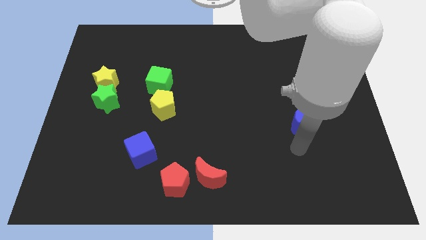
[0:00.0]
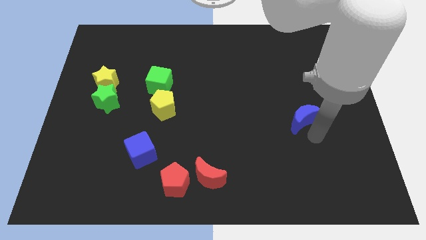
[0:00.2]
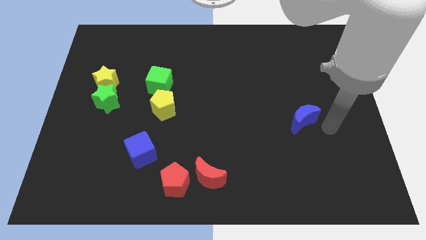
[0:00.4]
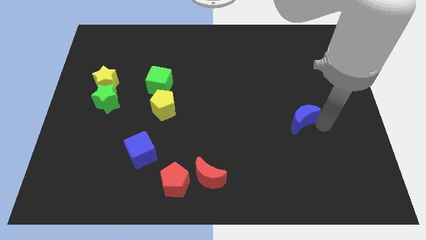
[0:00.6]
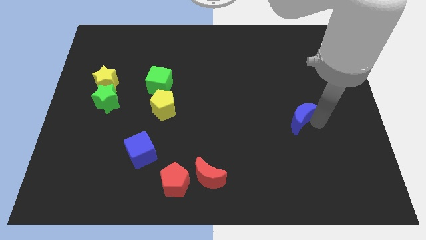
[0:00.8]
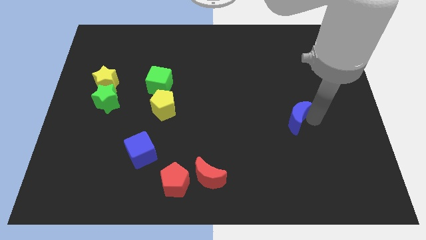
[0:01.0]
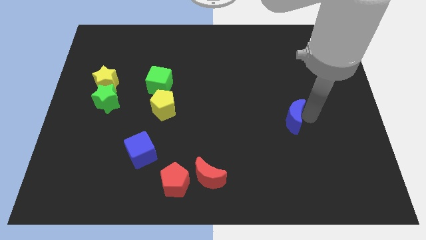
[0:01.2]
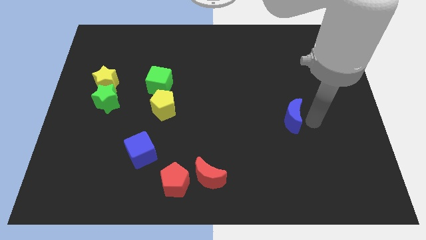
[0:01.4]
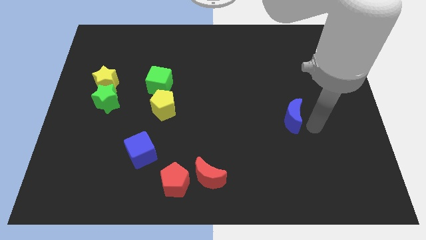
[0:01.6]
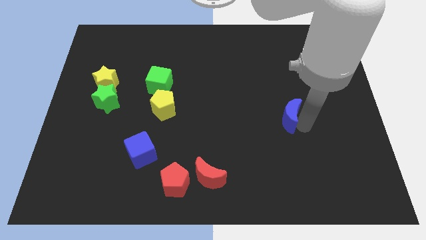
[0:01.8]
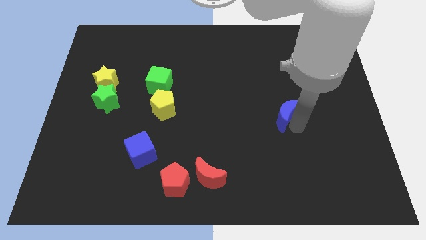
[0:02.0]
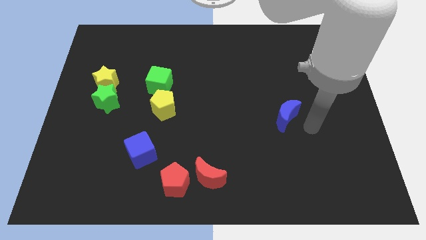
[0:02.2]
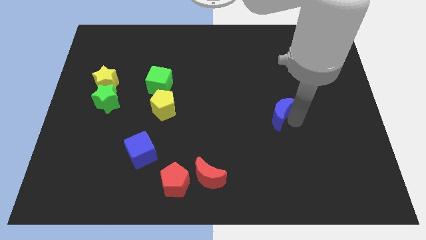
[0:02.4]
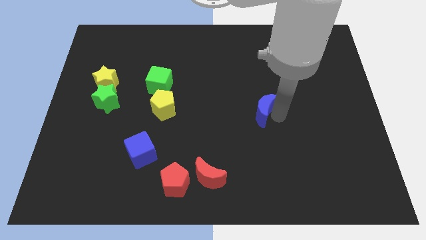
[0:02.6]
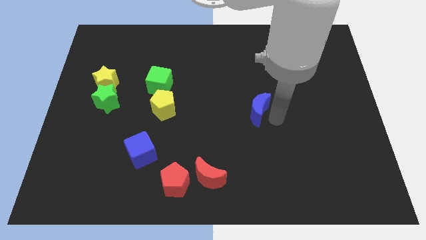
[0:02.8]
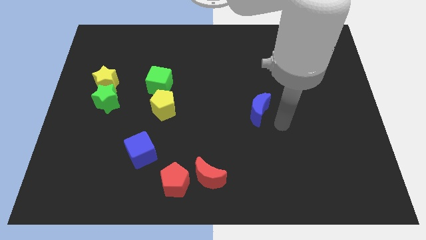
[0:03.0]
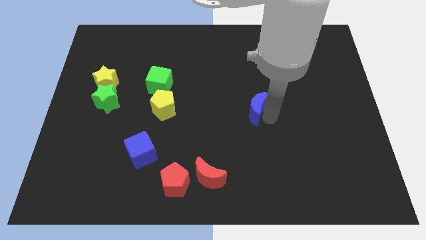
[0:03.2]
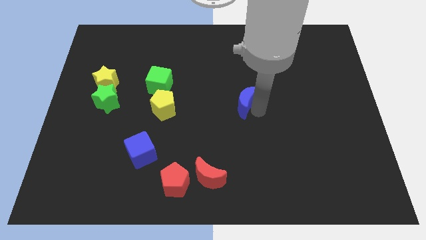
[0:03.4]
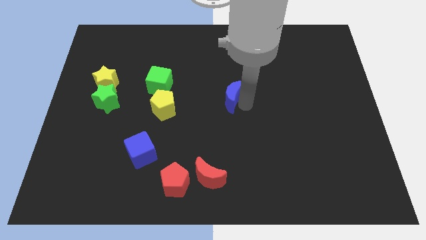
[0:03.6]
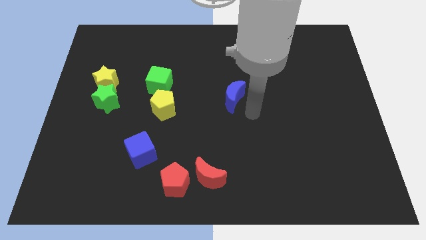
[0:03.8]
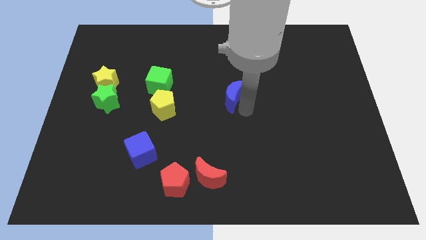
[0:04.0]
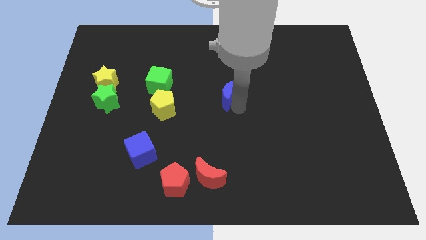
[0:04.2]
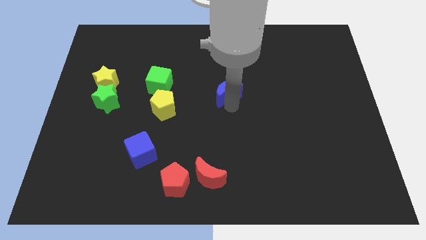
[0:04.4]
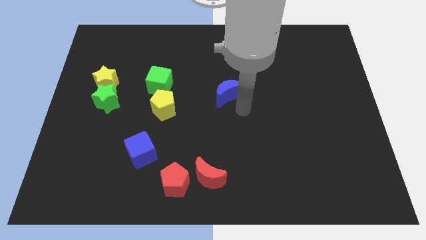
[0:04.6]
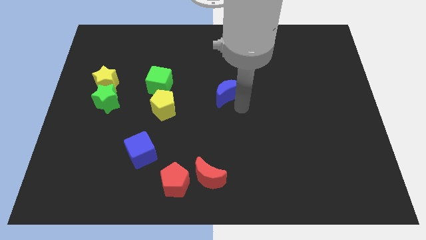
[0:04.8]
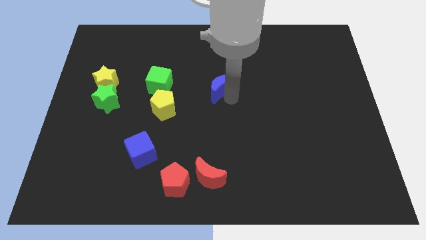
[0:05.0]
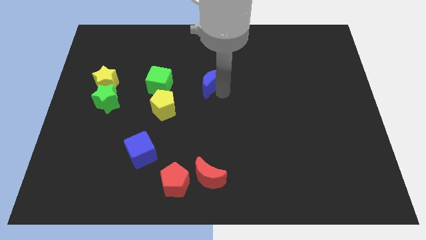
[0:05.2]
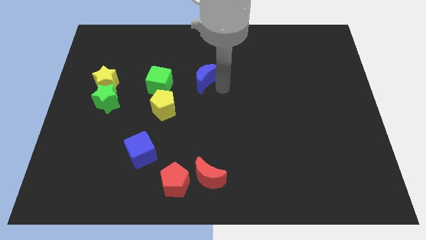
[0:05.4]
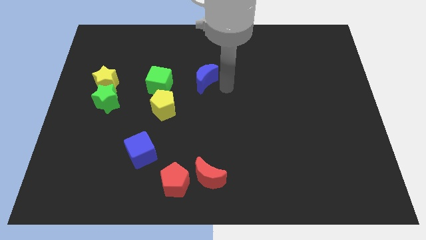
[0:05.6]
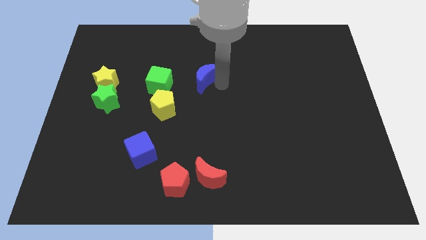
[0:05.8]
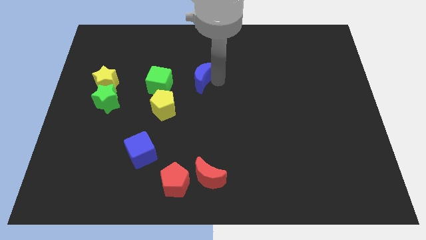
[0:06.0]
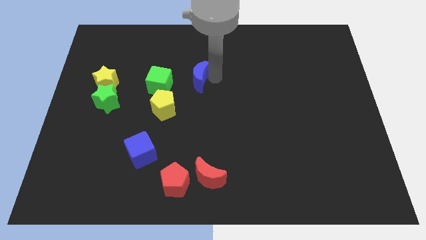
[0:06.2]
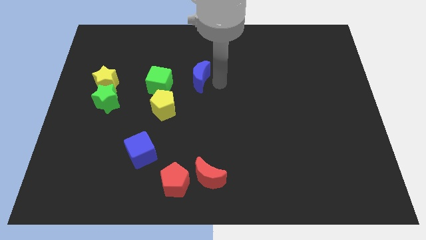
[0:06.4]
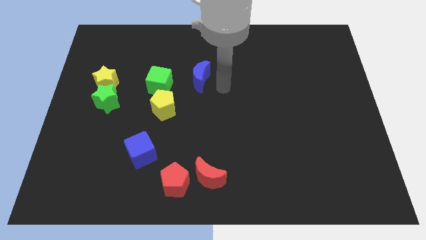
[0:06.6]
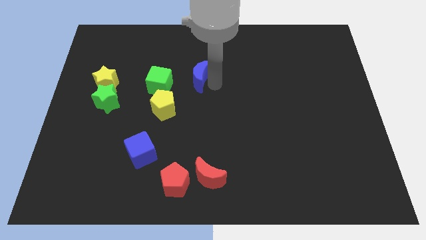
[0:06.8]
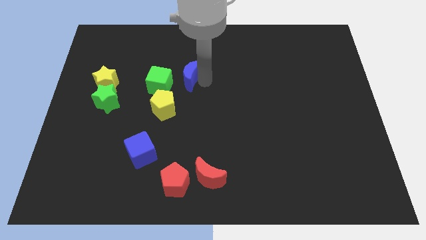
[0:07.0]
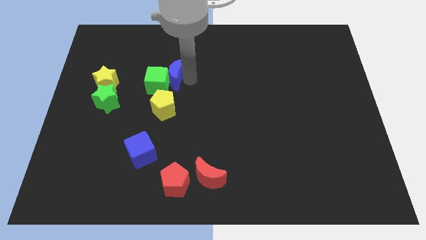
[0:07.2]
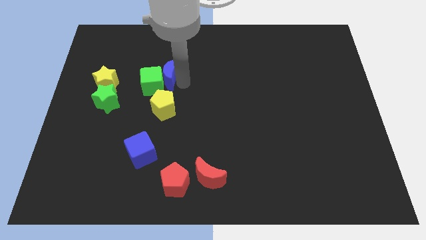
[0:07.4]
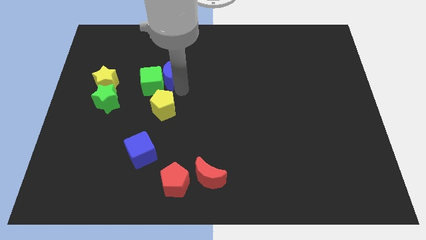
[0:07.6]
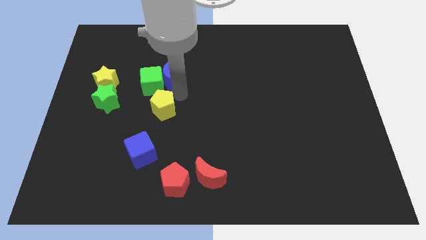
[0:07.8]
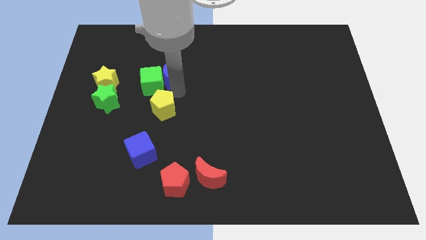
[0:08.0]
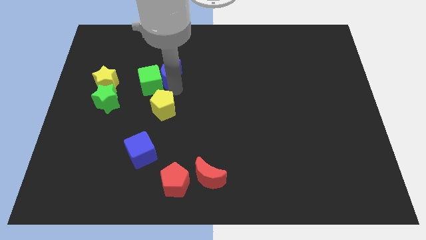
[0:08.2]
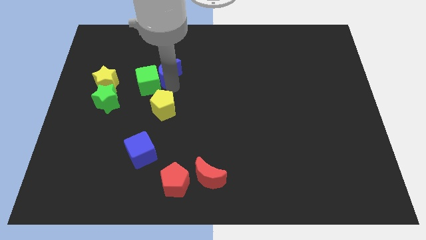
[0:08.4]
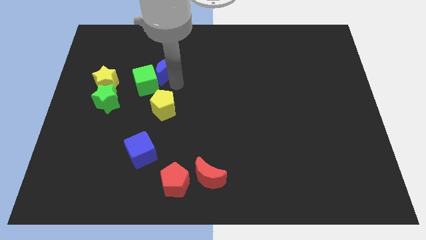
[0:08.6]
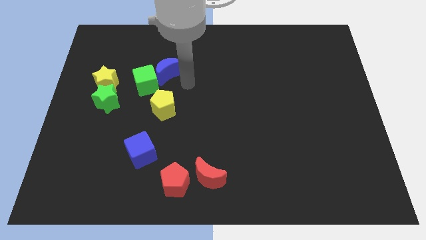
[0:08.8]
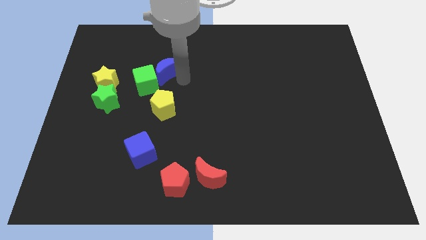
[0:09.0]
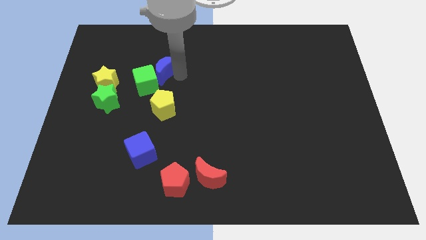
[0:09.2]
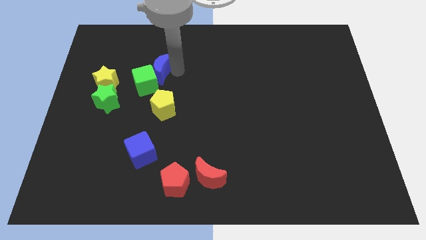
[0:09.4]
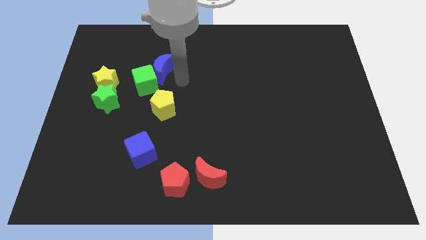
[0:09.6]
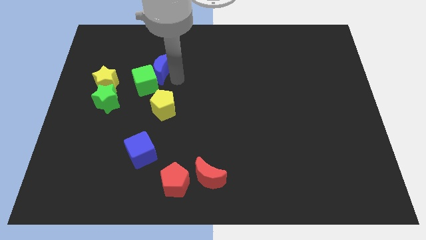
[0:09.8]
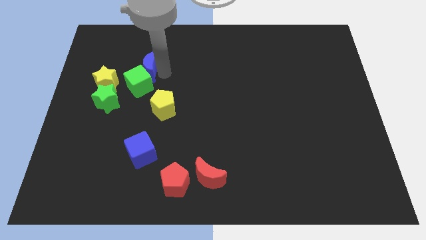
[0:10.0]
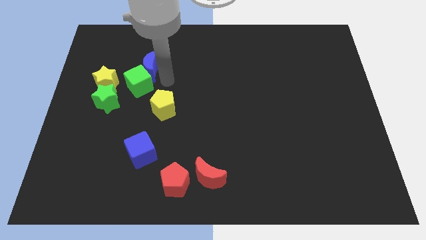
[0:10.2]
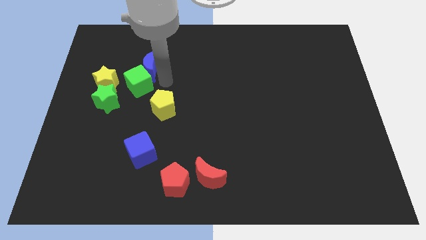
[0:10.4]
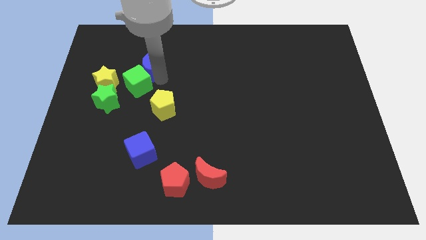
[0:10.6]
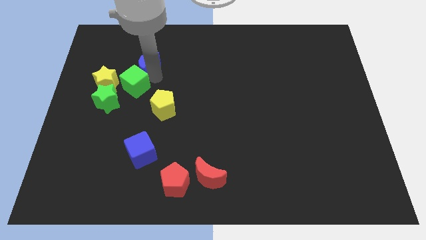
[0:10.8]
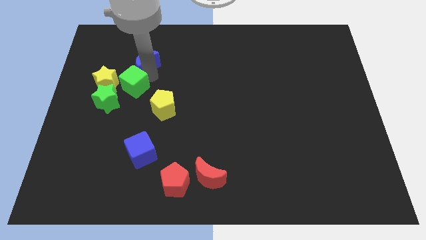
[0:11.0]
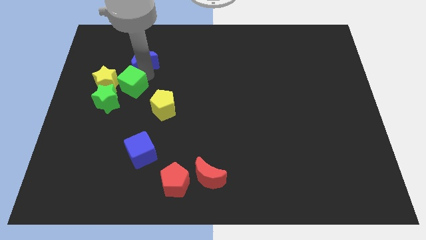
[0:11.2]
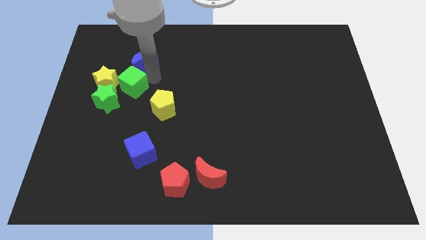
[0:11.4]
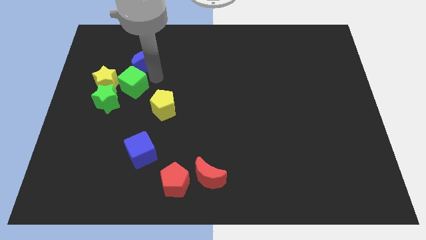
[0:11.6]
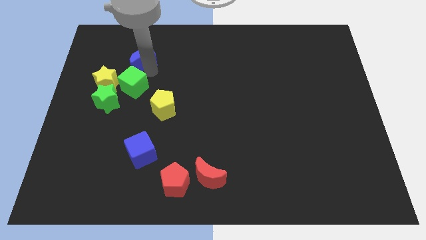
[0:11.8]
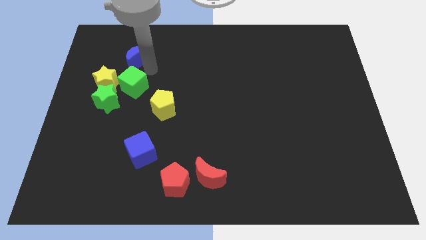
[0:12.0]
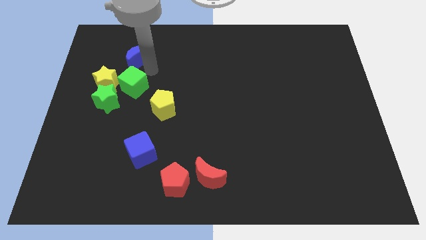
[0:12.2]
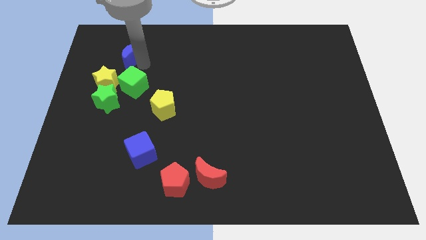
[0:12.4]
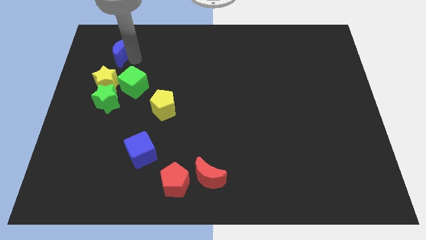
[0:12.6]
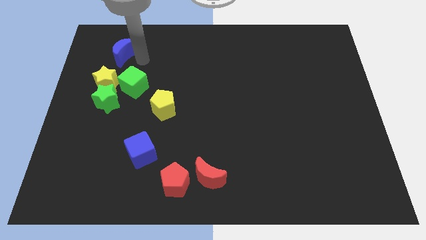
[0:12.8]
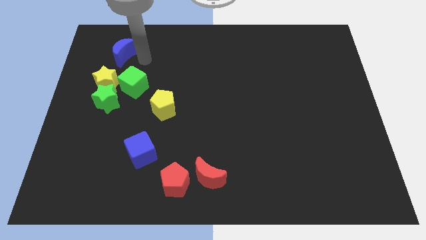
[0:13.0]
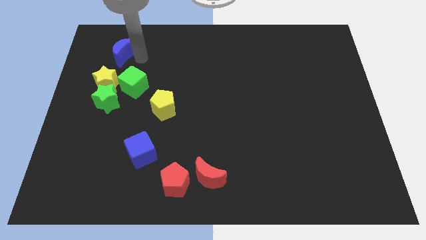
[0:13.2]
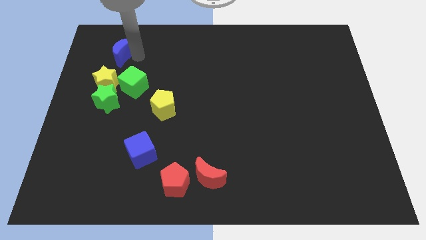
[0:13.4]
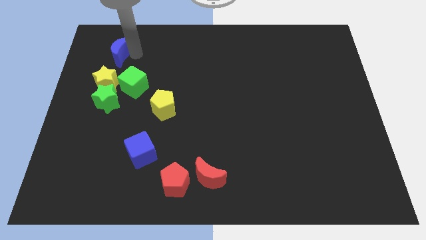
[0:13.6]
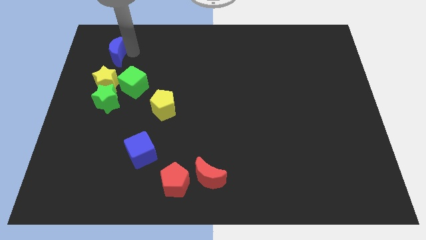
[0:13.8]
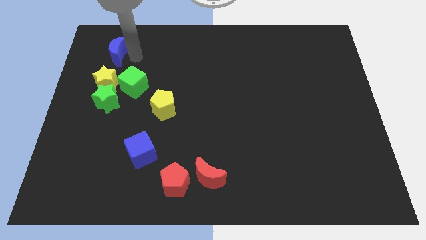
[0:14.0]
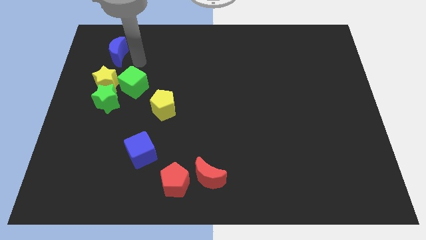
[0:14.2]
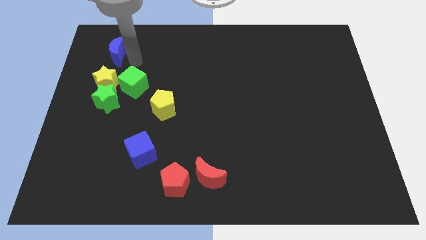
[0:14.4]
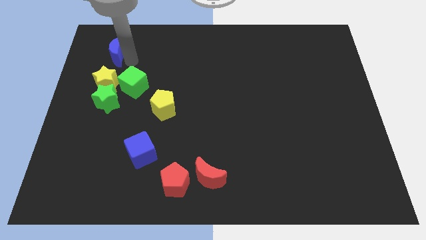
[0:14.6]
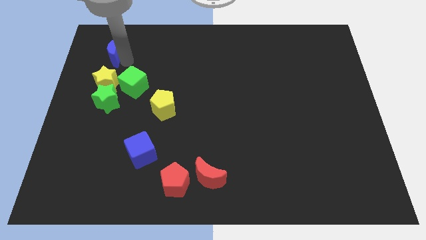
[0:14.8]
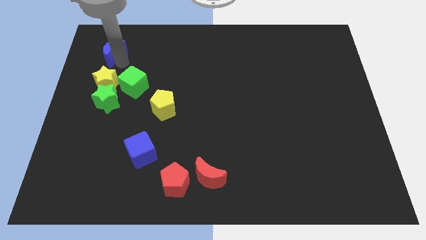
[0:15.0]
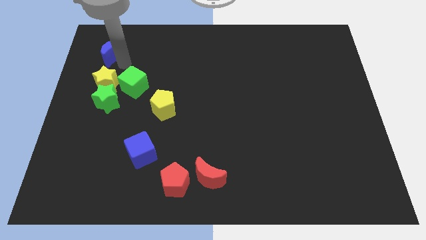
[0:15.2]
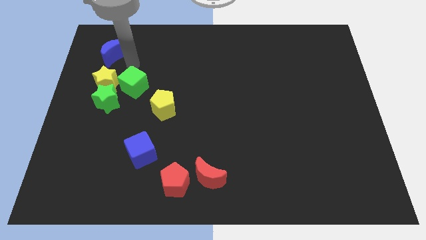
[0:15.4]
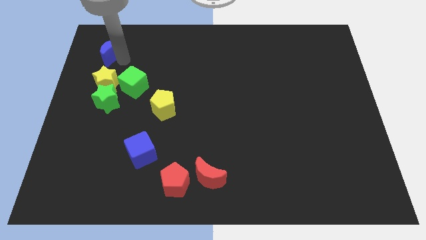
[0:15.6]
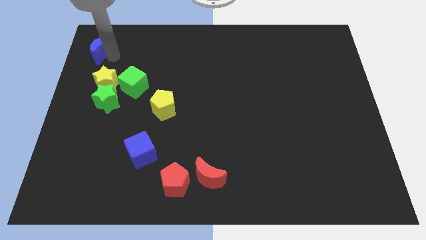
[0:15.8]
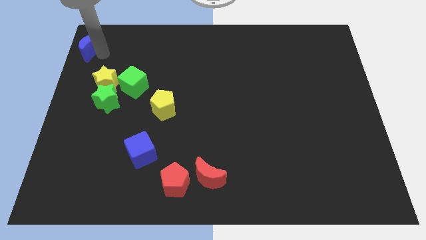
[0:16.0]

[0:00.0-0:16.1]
slide the blue moon to the upper left corner
